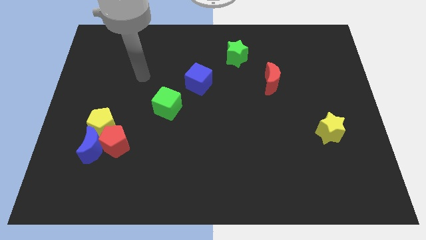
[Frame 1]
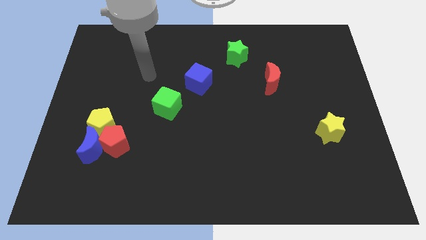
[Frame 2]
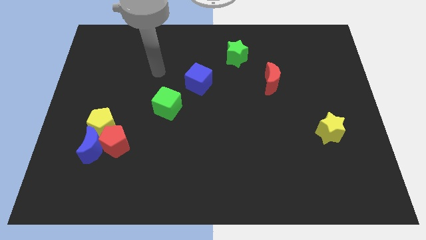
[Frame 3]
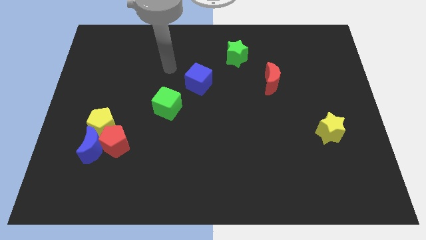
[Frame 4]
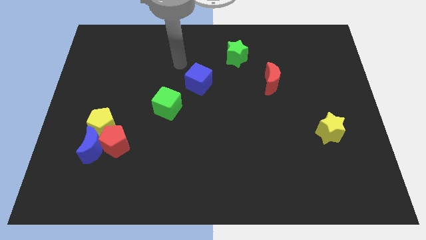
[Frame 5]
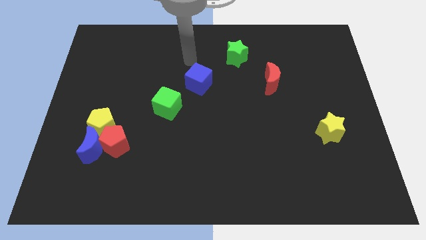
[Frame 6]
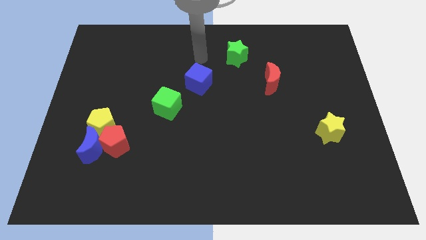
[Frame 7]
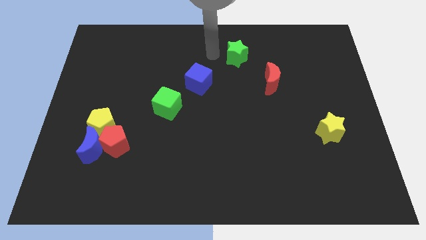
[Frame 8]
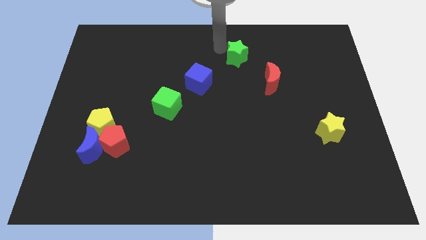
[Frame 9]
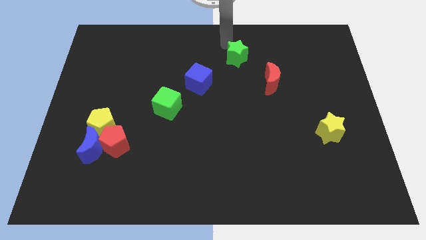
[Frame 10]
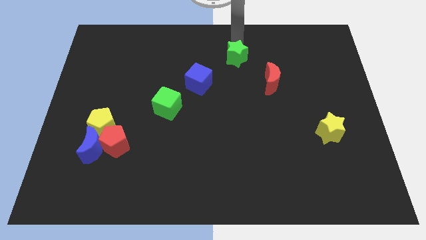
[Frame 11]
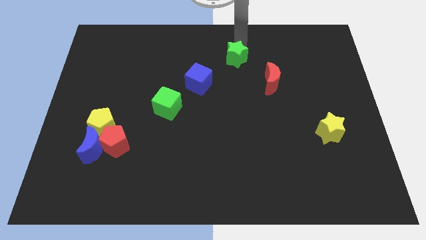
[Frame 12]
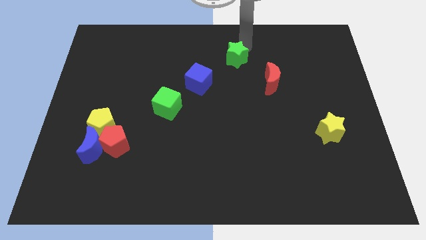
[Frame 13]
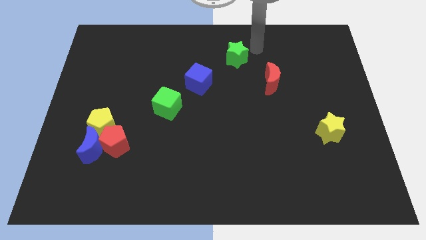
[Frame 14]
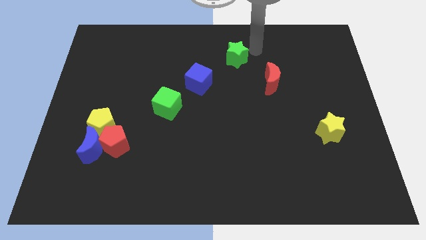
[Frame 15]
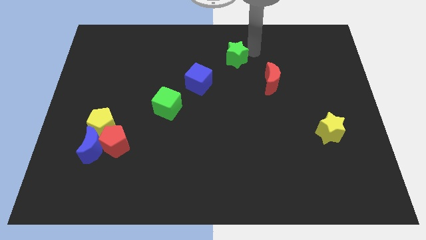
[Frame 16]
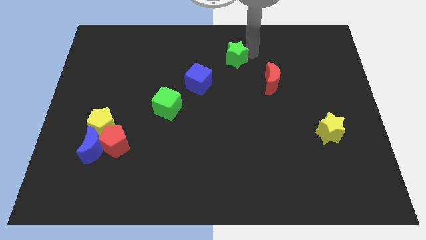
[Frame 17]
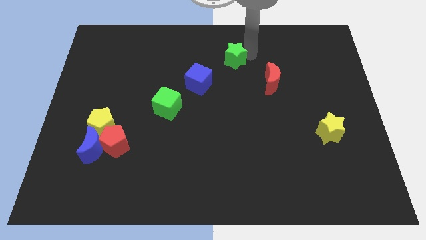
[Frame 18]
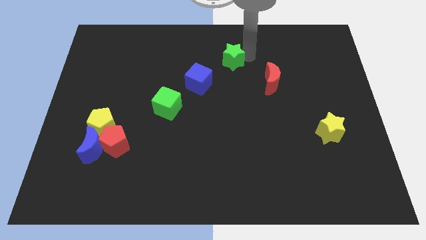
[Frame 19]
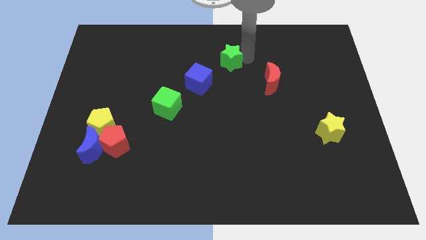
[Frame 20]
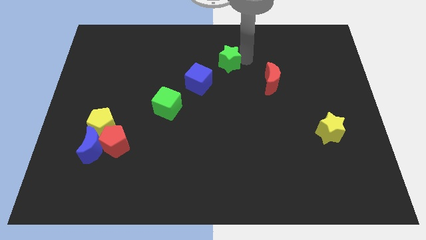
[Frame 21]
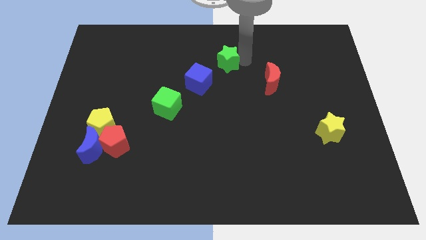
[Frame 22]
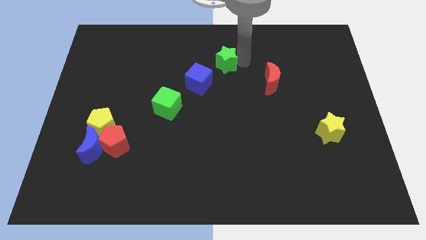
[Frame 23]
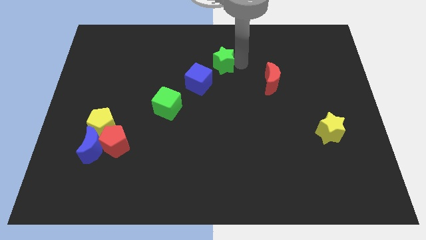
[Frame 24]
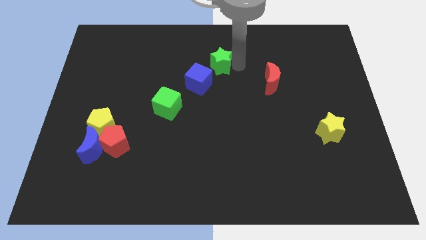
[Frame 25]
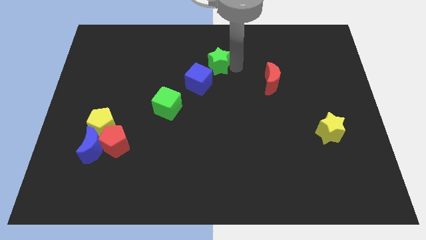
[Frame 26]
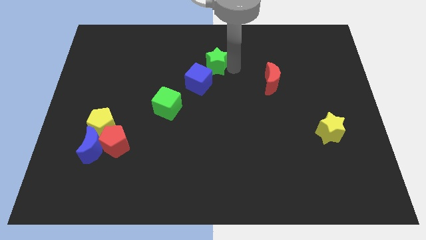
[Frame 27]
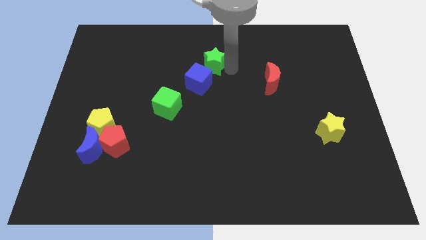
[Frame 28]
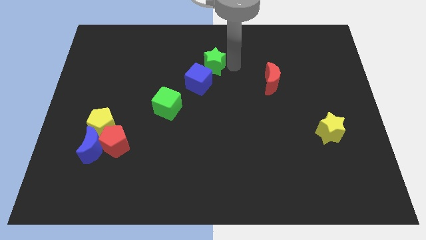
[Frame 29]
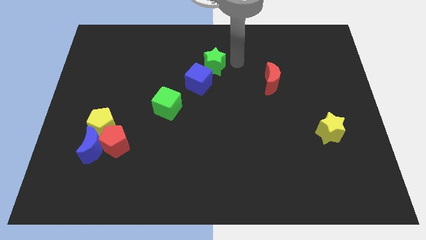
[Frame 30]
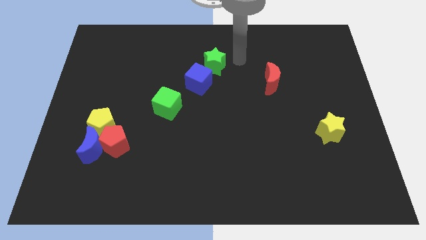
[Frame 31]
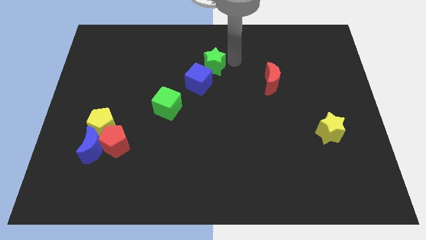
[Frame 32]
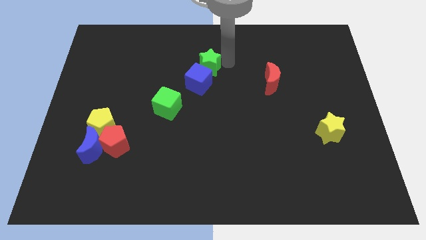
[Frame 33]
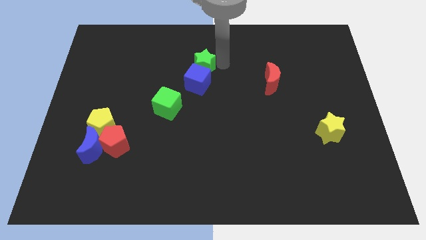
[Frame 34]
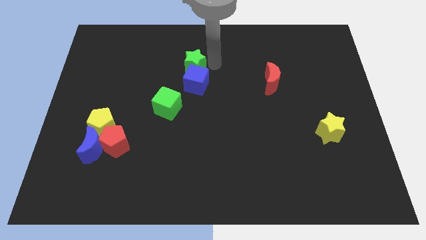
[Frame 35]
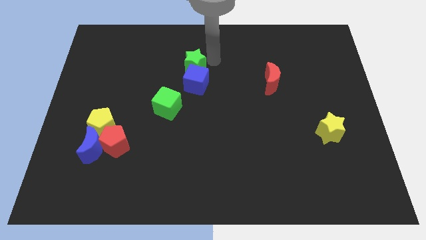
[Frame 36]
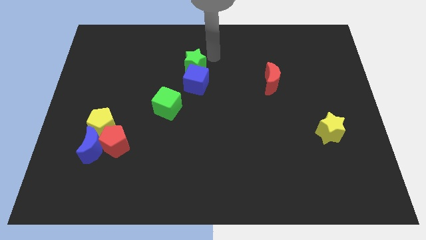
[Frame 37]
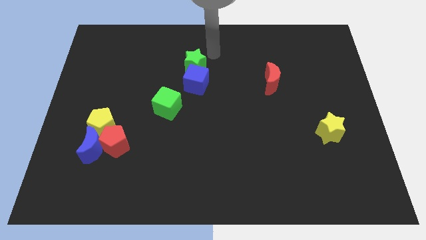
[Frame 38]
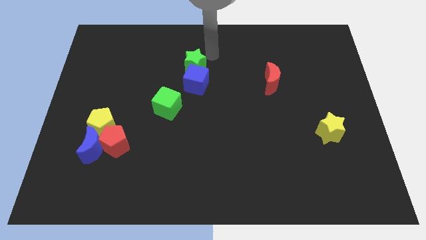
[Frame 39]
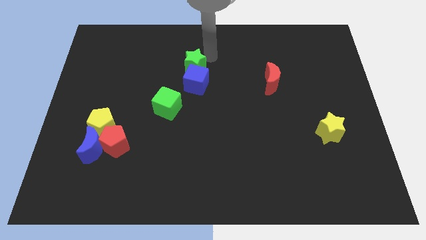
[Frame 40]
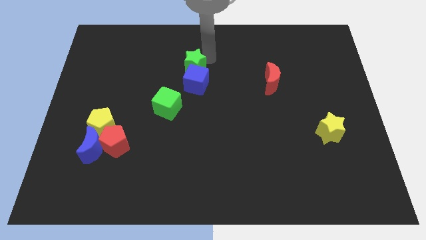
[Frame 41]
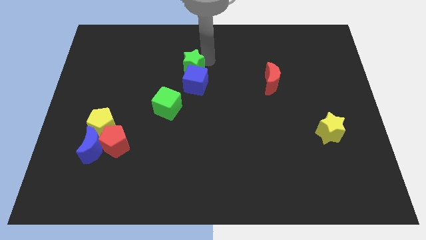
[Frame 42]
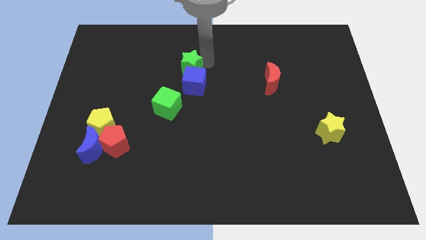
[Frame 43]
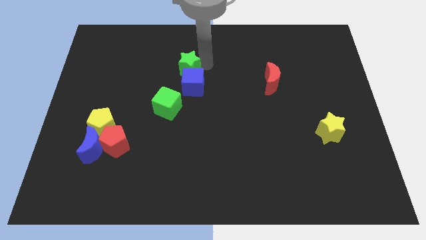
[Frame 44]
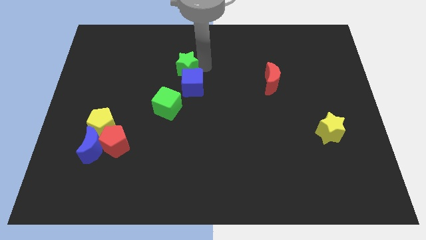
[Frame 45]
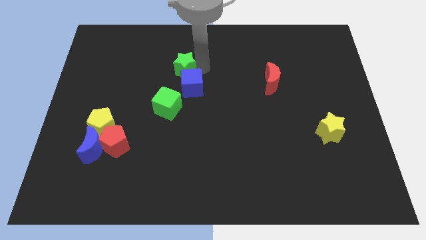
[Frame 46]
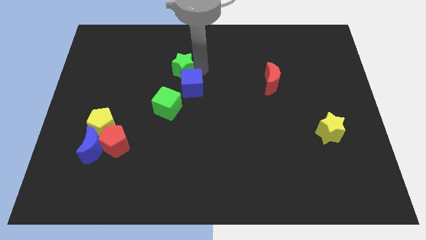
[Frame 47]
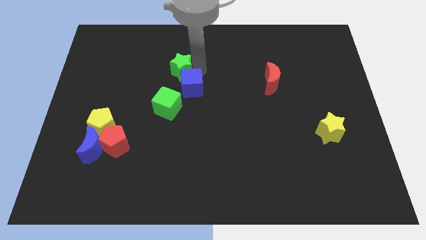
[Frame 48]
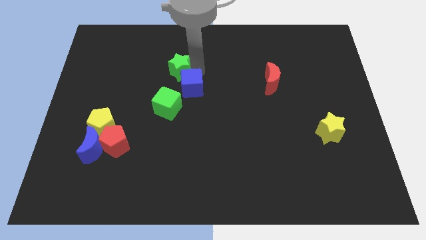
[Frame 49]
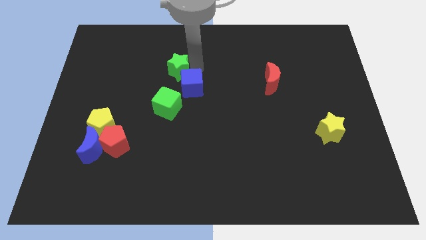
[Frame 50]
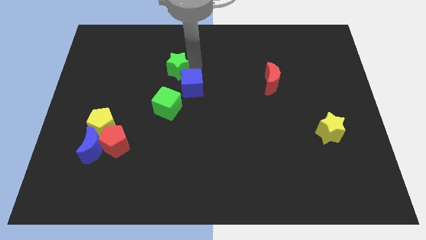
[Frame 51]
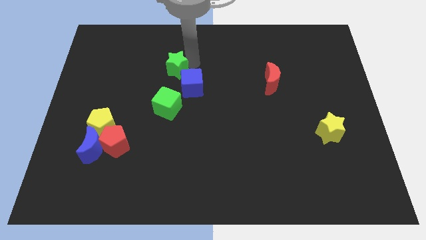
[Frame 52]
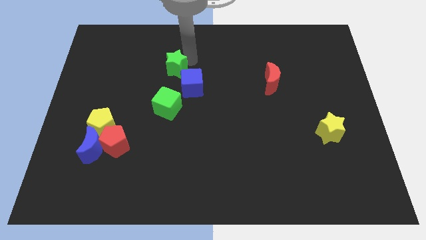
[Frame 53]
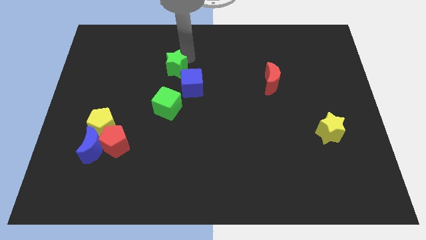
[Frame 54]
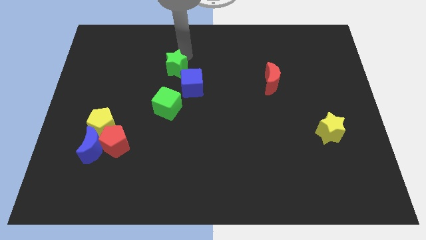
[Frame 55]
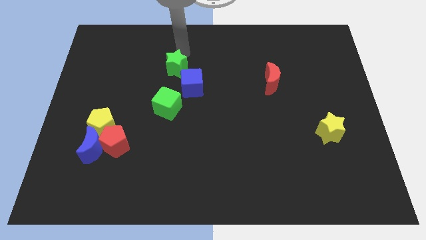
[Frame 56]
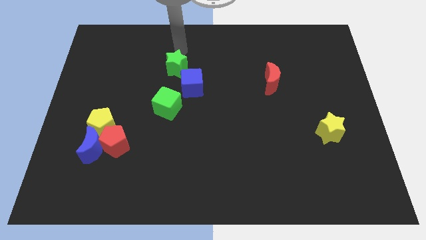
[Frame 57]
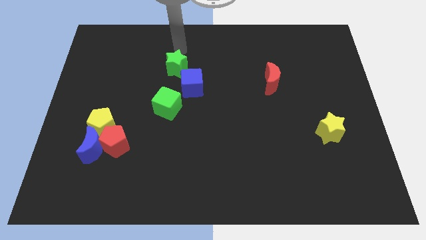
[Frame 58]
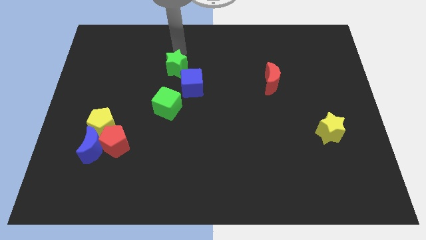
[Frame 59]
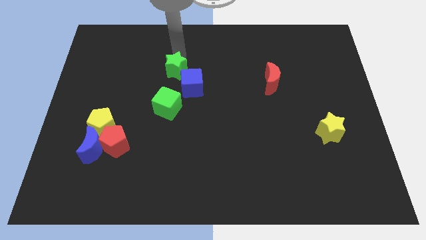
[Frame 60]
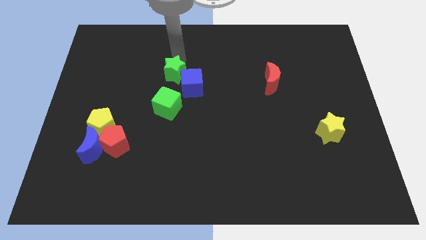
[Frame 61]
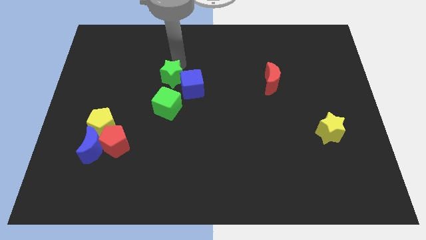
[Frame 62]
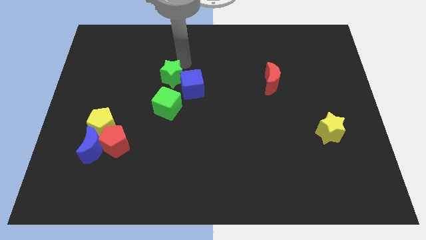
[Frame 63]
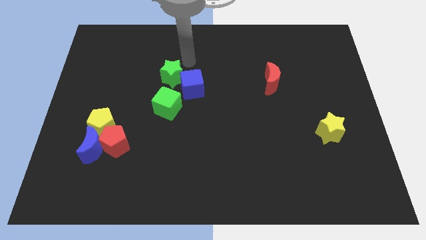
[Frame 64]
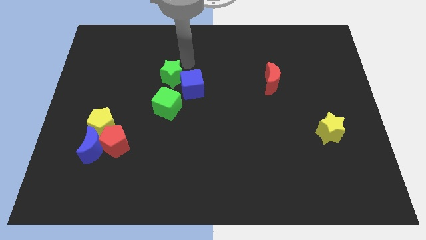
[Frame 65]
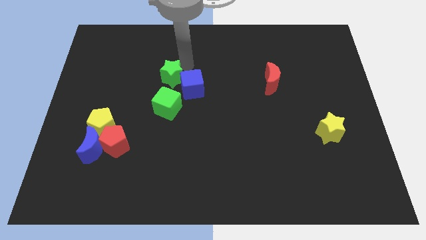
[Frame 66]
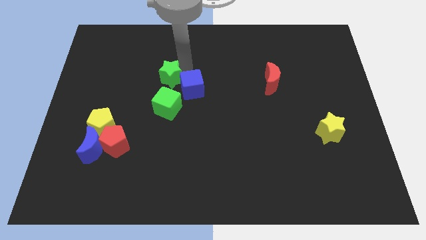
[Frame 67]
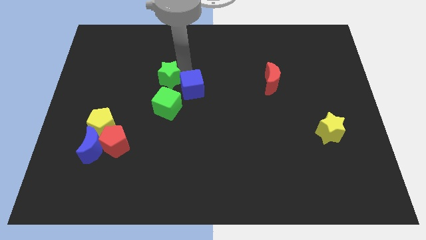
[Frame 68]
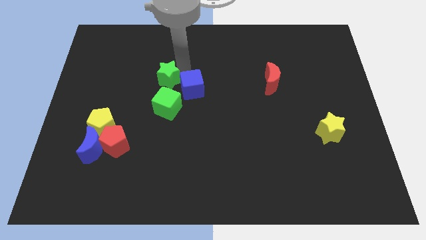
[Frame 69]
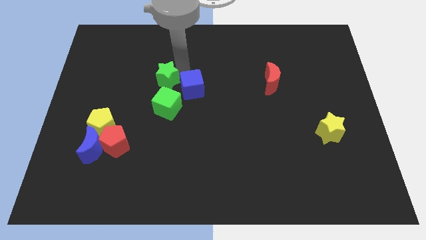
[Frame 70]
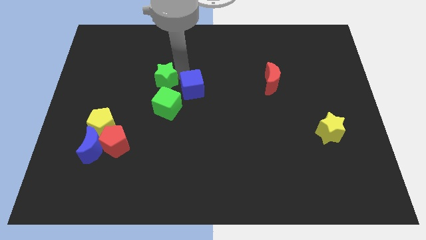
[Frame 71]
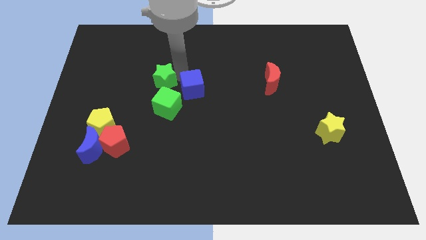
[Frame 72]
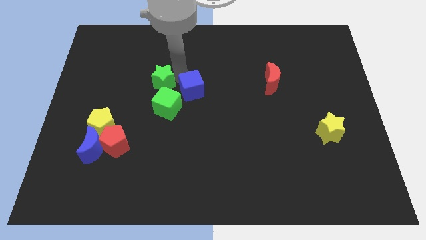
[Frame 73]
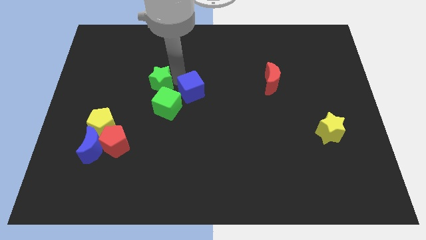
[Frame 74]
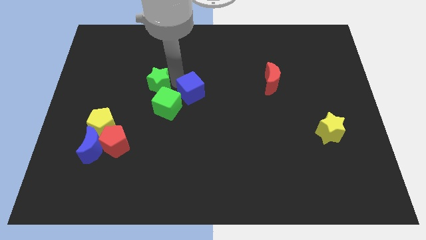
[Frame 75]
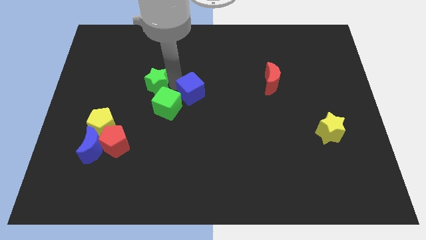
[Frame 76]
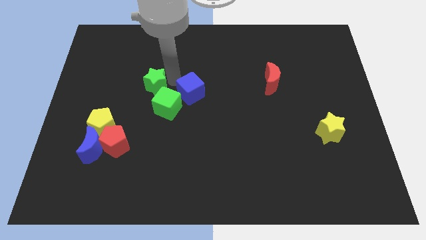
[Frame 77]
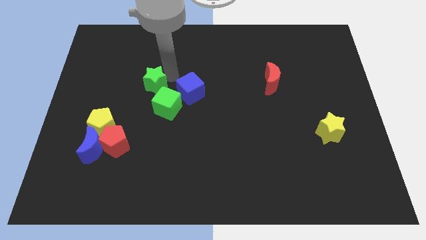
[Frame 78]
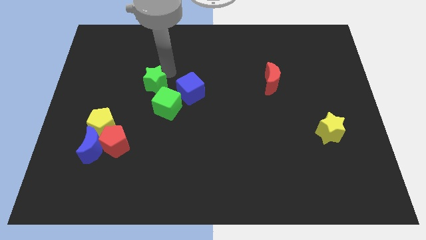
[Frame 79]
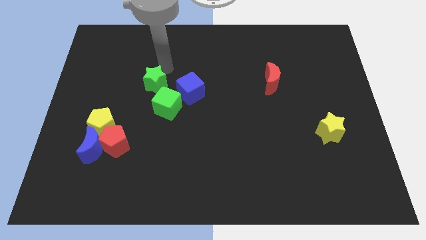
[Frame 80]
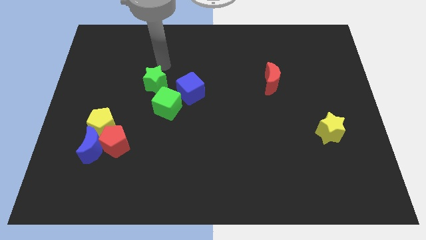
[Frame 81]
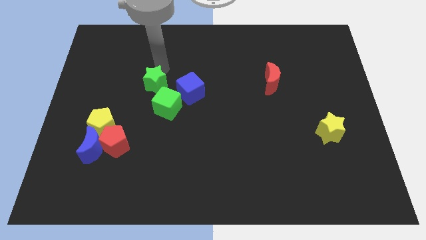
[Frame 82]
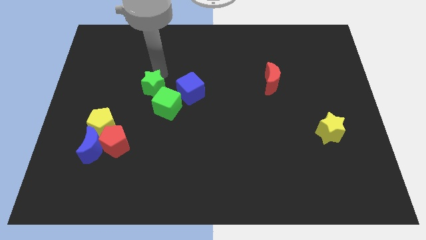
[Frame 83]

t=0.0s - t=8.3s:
push the green star diagonally downwards and left
